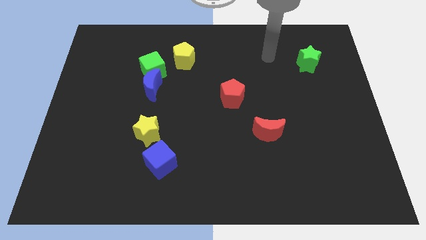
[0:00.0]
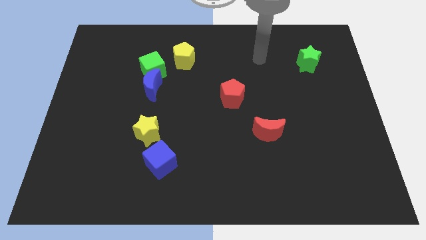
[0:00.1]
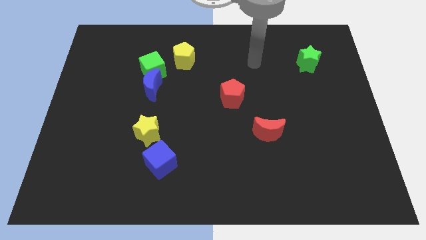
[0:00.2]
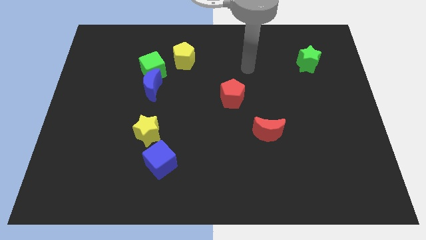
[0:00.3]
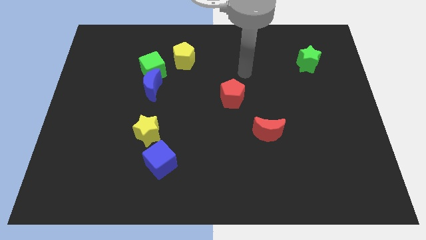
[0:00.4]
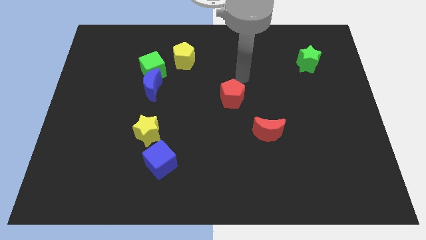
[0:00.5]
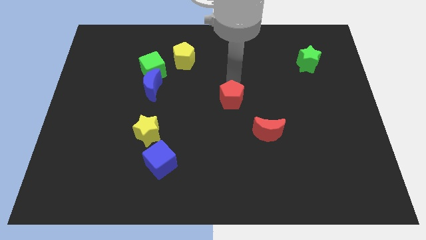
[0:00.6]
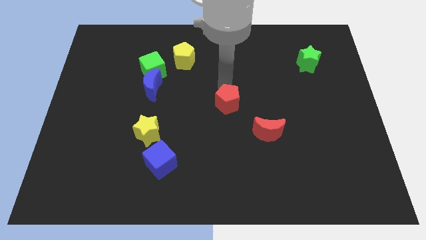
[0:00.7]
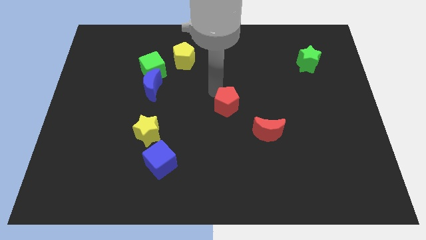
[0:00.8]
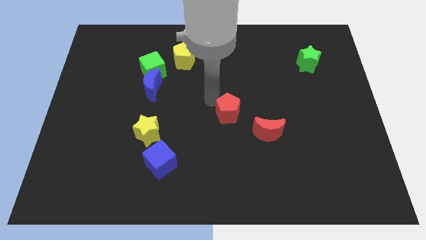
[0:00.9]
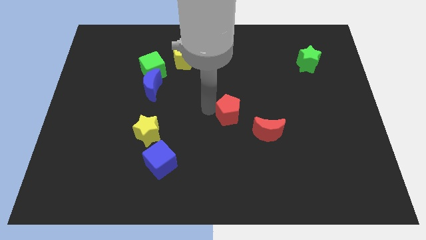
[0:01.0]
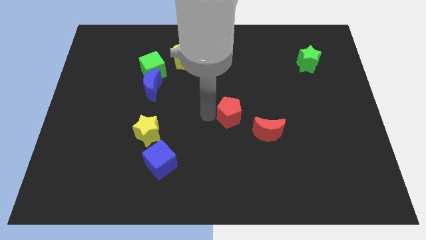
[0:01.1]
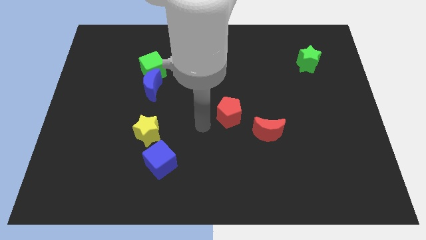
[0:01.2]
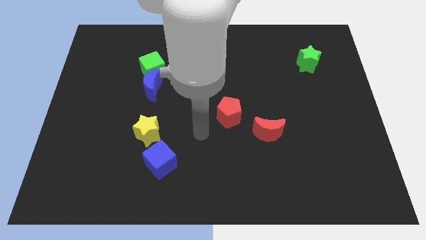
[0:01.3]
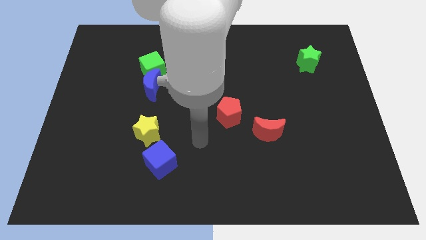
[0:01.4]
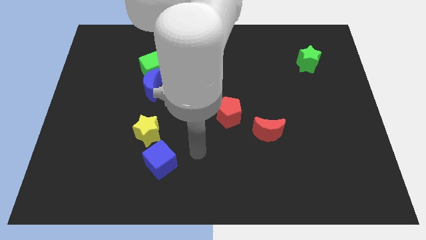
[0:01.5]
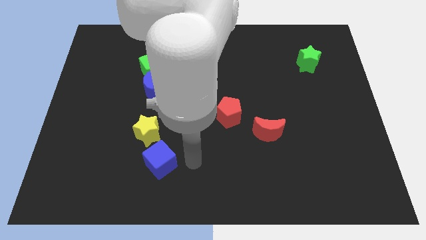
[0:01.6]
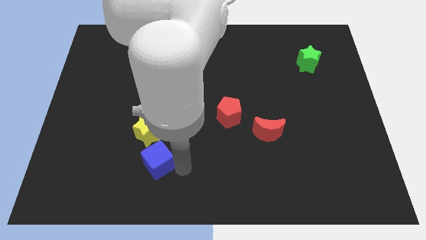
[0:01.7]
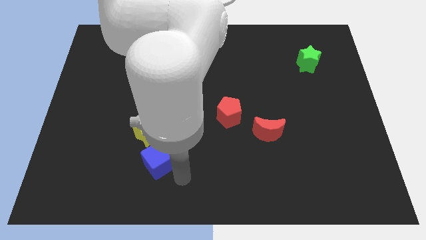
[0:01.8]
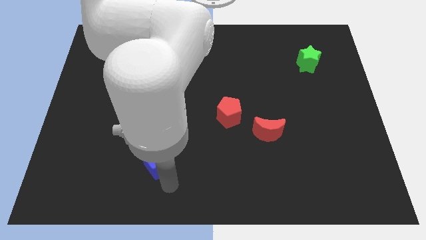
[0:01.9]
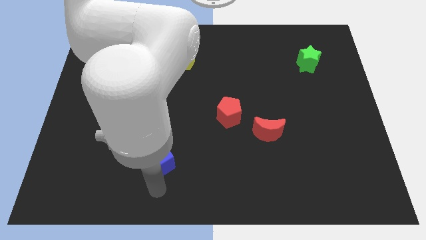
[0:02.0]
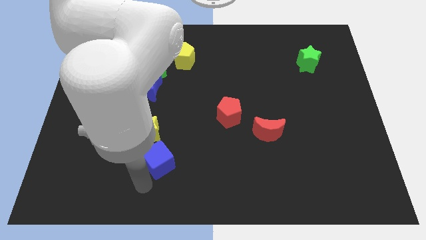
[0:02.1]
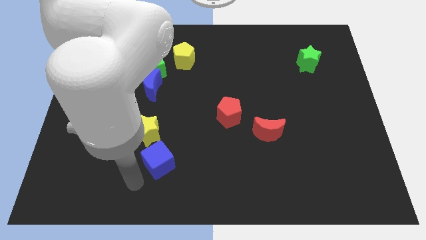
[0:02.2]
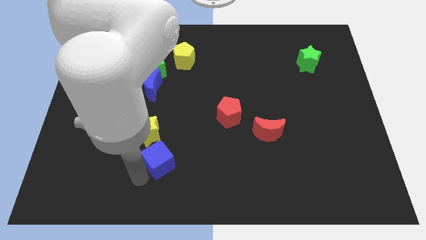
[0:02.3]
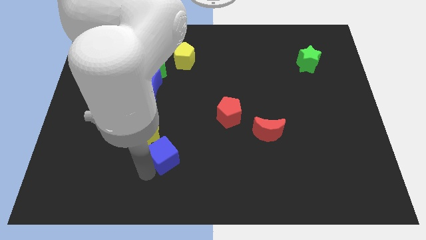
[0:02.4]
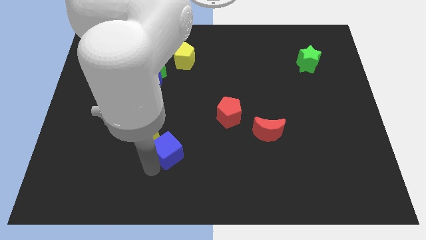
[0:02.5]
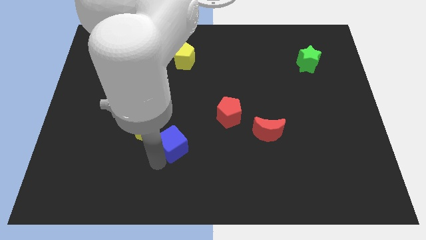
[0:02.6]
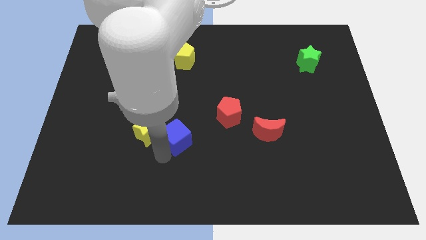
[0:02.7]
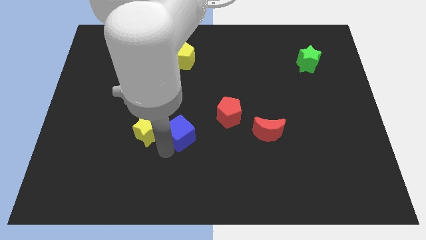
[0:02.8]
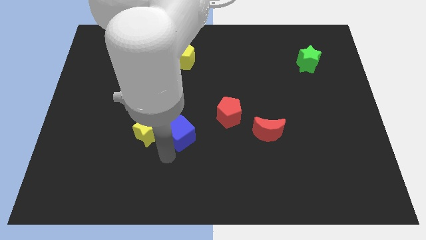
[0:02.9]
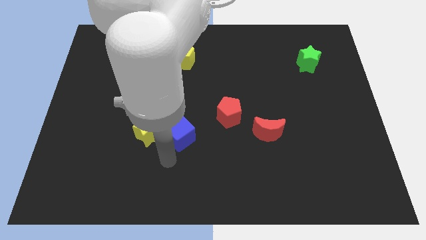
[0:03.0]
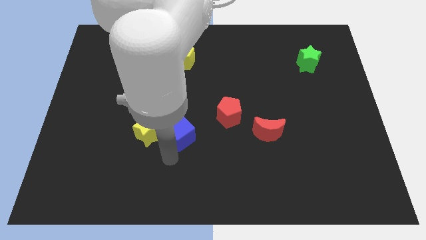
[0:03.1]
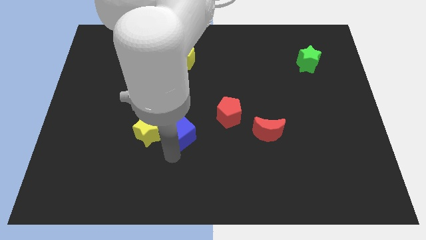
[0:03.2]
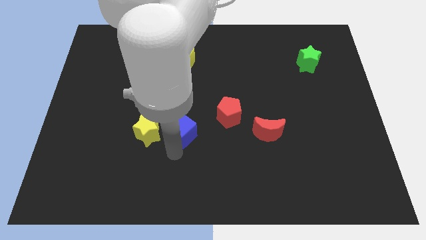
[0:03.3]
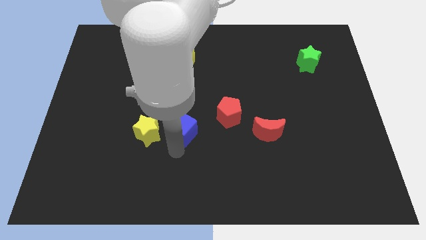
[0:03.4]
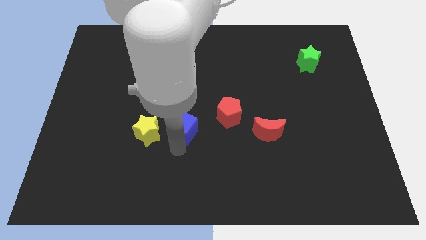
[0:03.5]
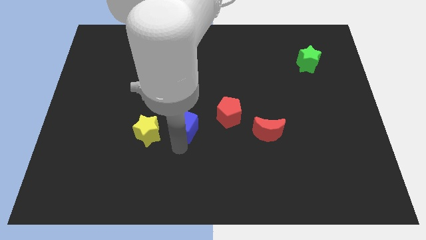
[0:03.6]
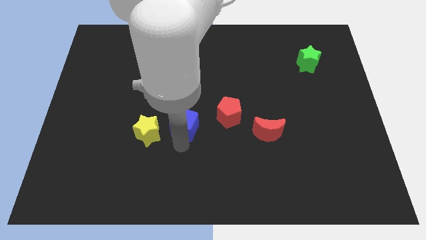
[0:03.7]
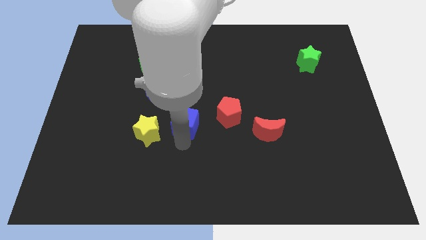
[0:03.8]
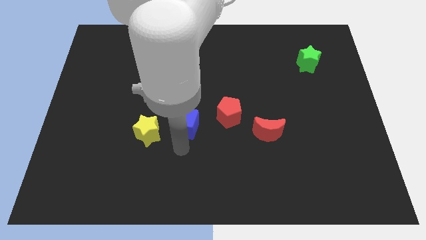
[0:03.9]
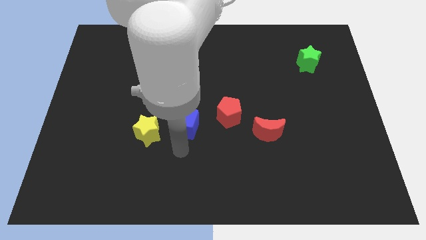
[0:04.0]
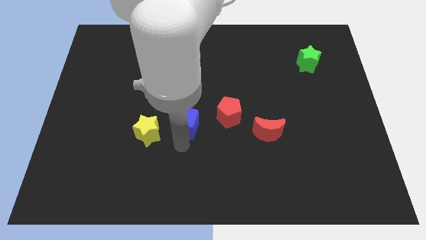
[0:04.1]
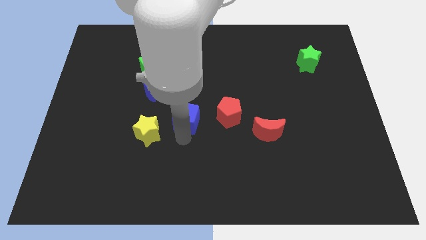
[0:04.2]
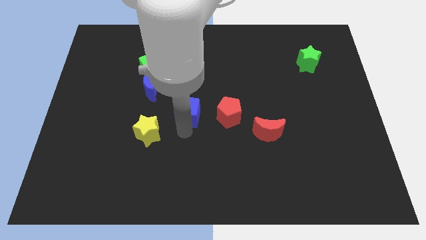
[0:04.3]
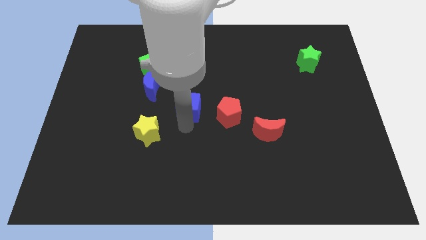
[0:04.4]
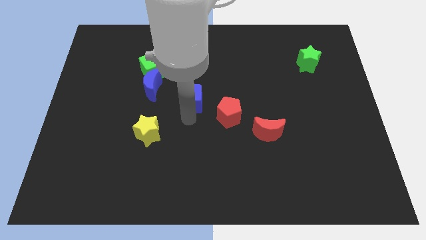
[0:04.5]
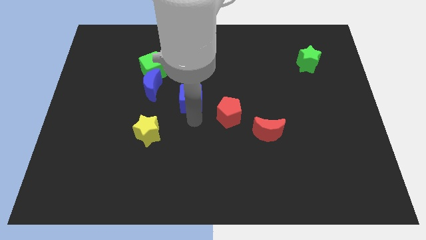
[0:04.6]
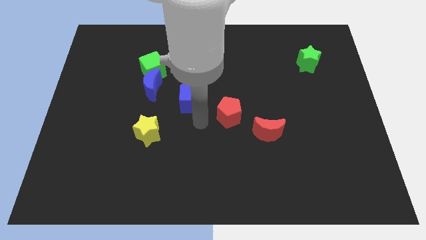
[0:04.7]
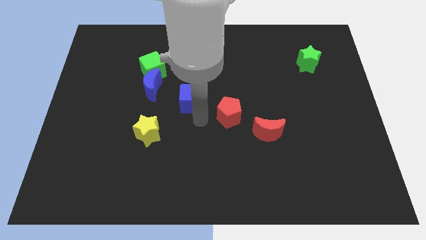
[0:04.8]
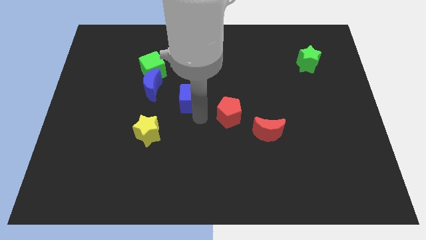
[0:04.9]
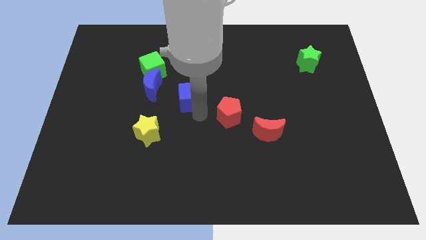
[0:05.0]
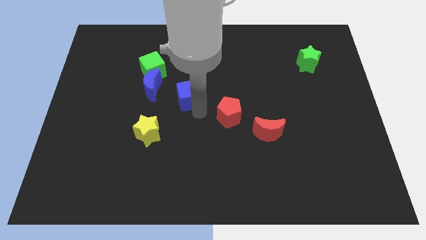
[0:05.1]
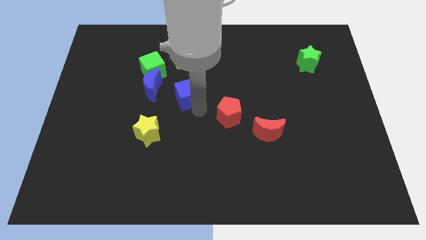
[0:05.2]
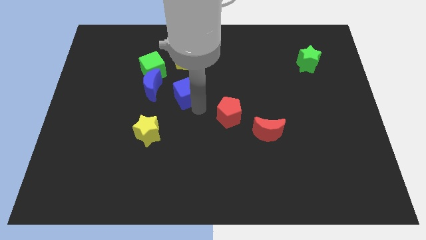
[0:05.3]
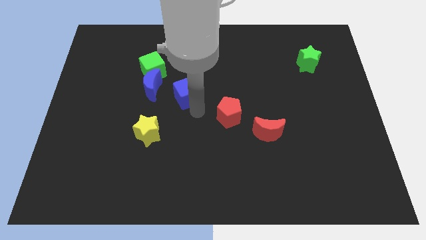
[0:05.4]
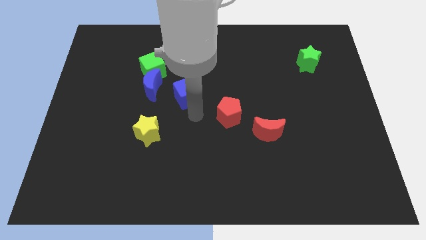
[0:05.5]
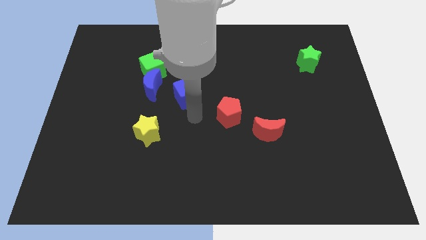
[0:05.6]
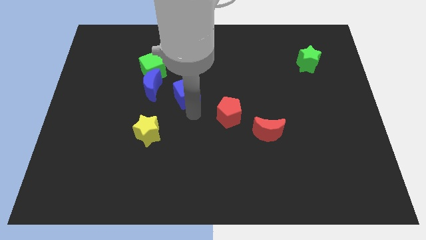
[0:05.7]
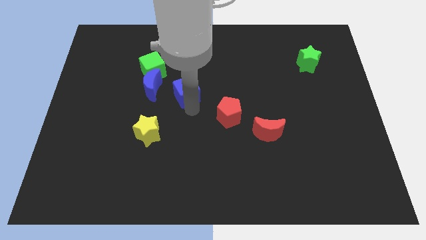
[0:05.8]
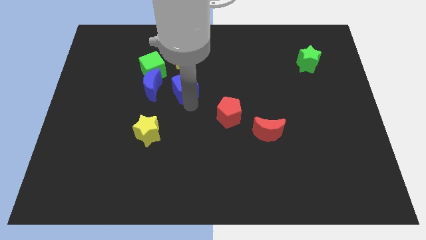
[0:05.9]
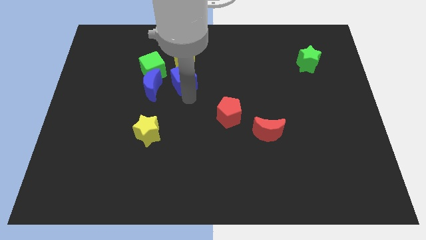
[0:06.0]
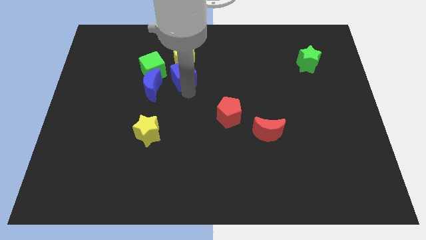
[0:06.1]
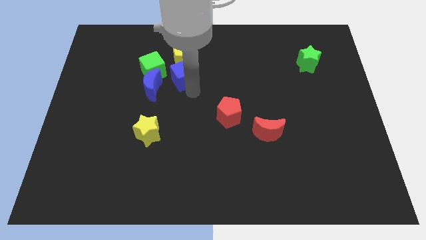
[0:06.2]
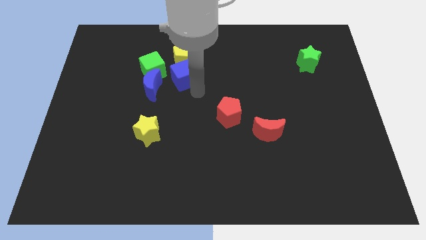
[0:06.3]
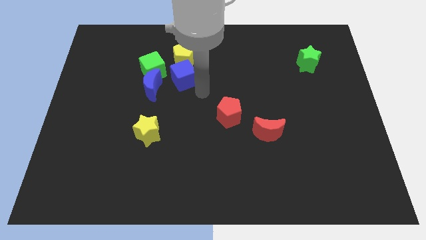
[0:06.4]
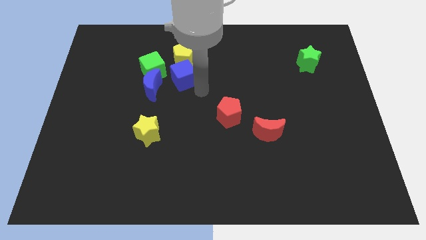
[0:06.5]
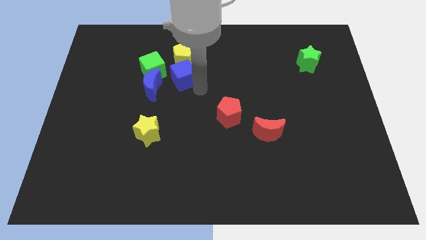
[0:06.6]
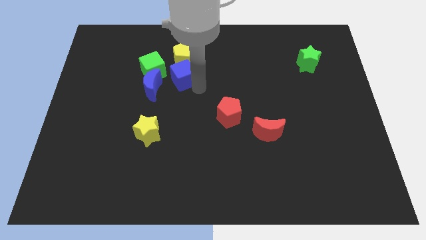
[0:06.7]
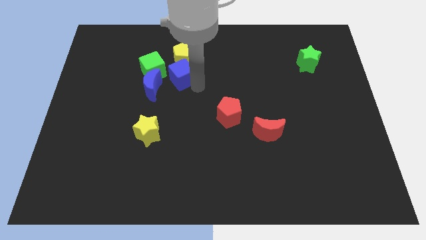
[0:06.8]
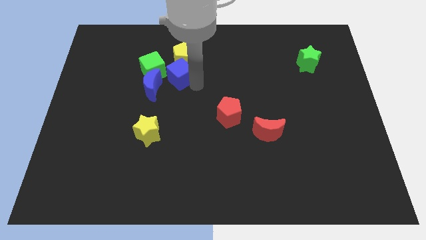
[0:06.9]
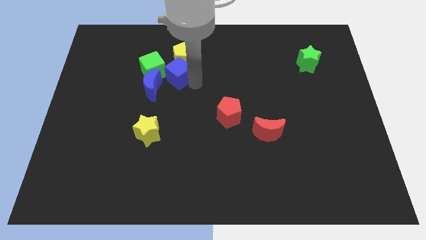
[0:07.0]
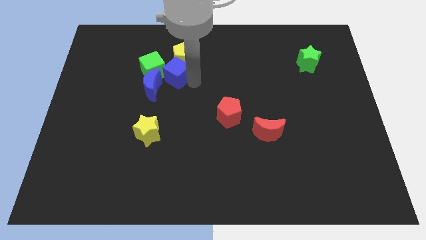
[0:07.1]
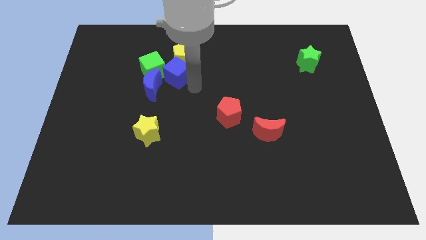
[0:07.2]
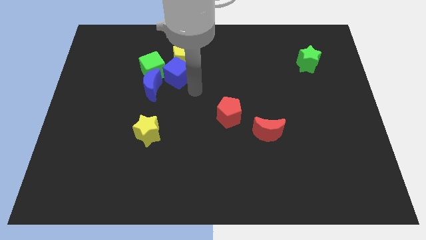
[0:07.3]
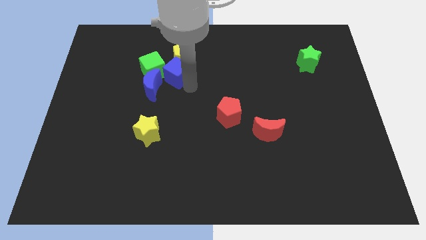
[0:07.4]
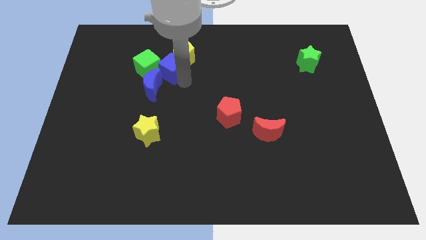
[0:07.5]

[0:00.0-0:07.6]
slide the blue cube to the top side of the blue moon

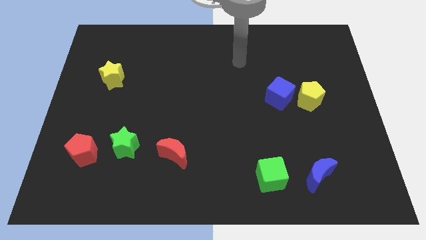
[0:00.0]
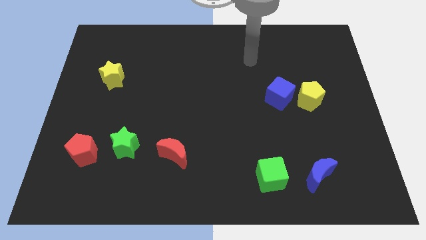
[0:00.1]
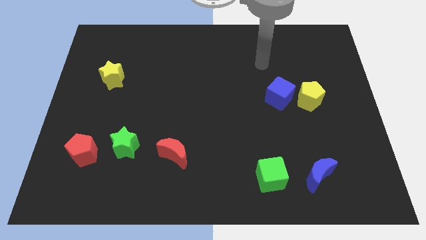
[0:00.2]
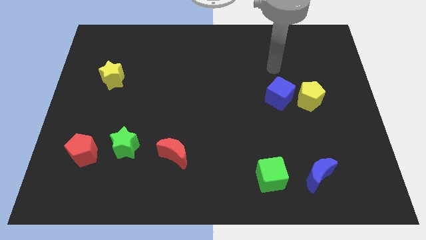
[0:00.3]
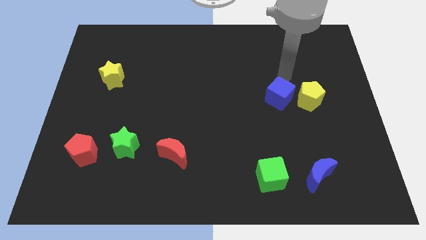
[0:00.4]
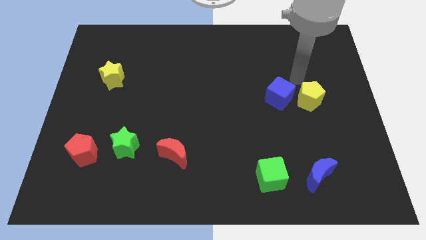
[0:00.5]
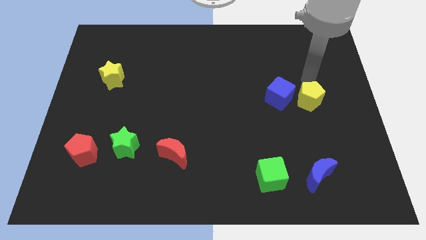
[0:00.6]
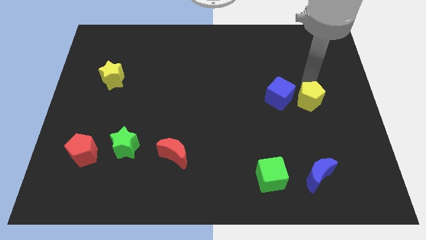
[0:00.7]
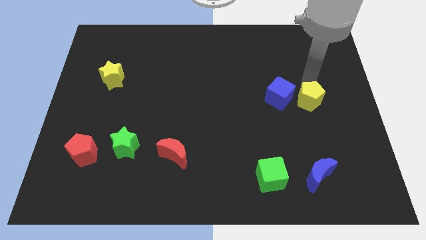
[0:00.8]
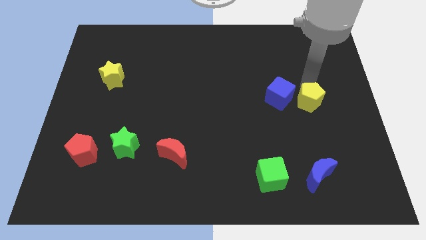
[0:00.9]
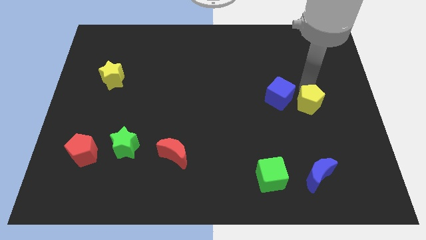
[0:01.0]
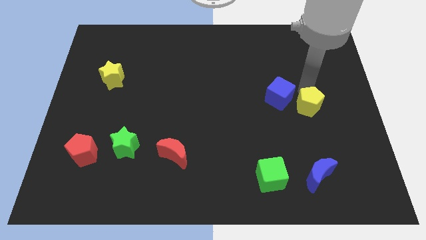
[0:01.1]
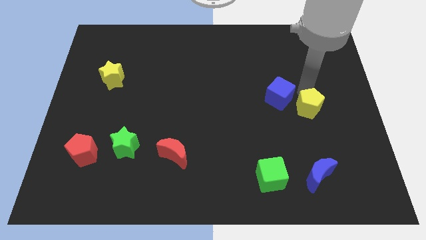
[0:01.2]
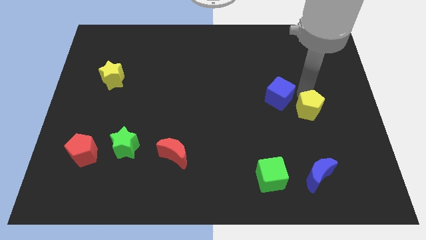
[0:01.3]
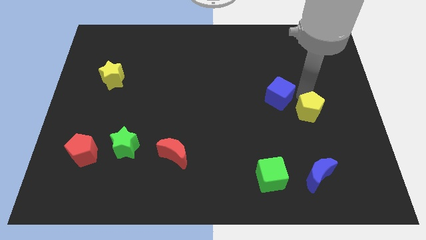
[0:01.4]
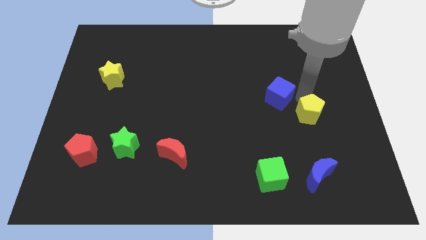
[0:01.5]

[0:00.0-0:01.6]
put the yellow pentagon to the top side of the blue moon
